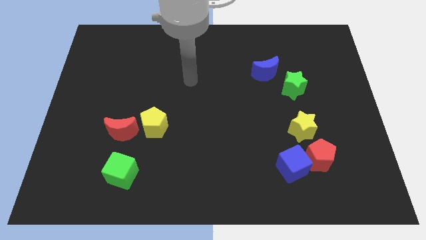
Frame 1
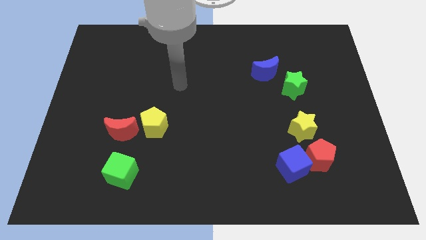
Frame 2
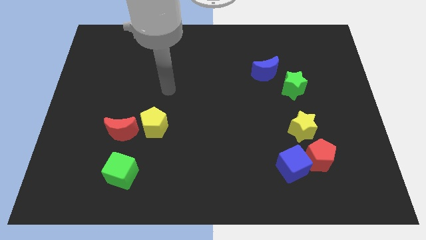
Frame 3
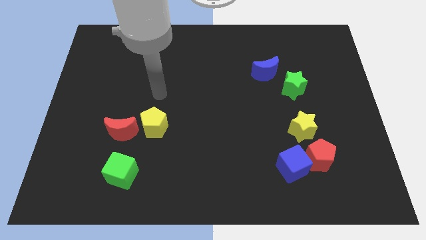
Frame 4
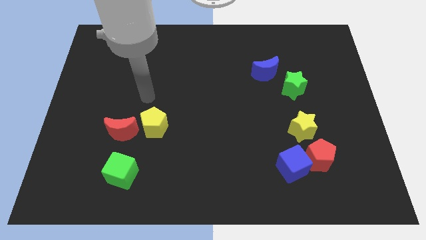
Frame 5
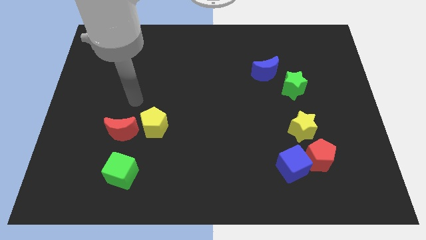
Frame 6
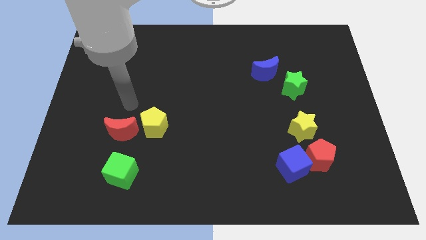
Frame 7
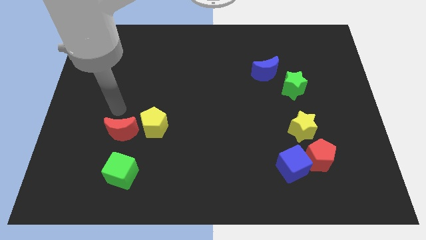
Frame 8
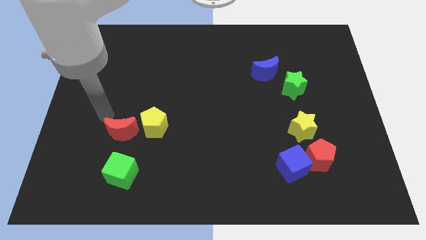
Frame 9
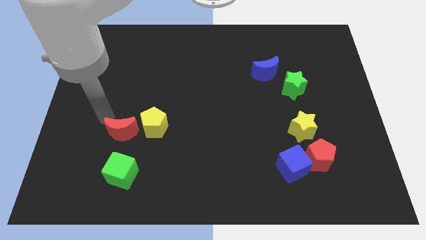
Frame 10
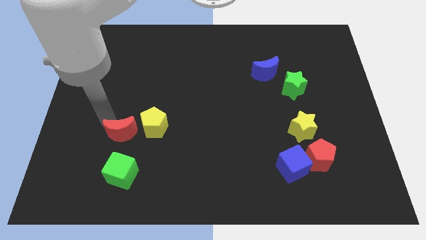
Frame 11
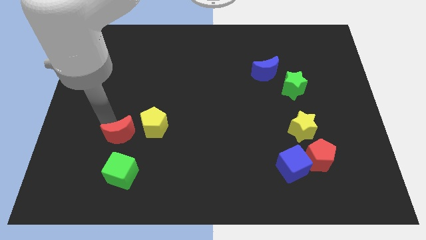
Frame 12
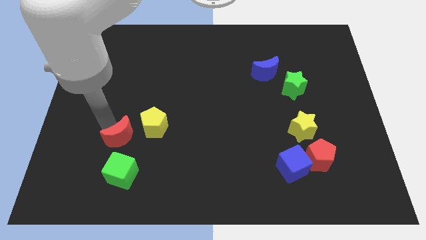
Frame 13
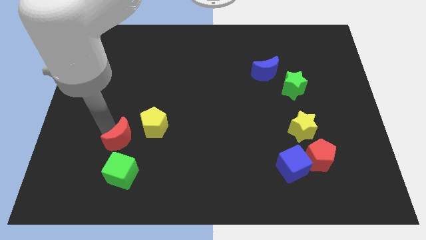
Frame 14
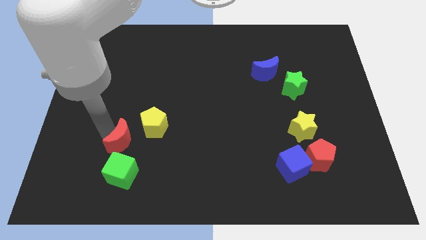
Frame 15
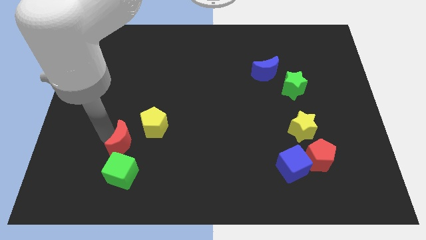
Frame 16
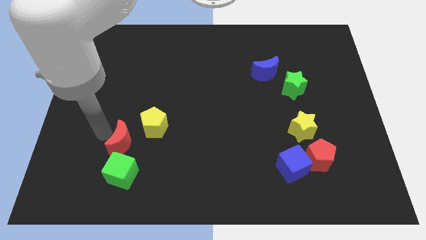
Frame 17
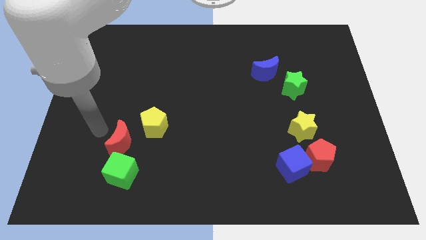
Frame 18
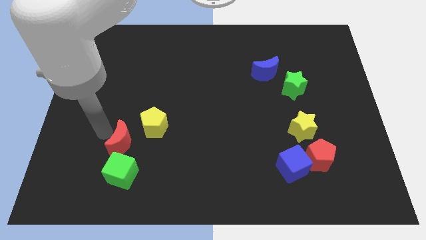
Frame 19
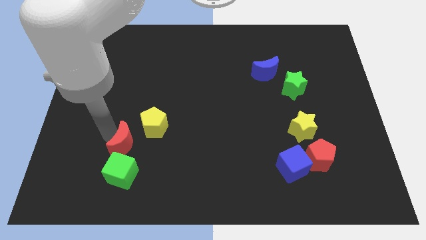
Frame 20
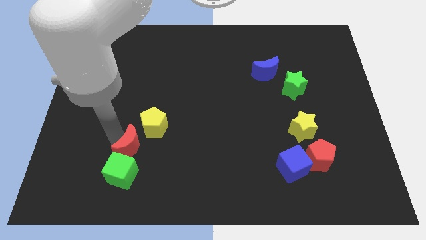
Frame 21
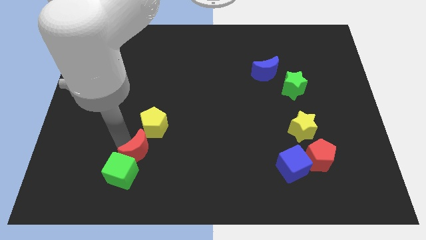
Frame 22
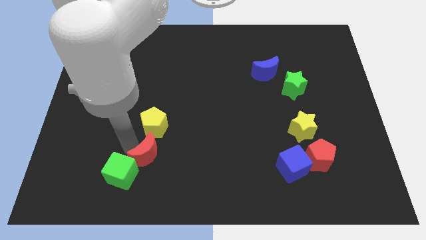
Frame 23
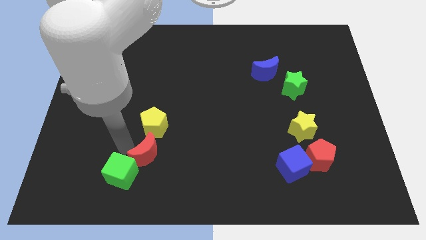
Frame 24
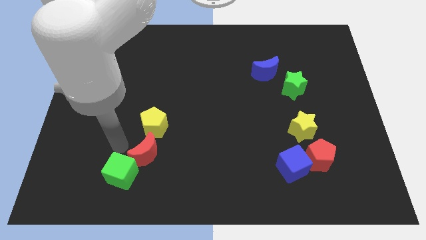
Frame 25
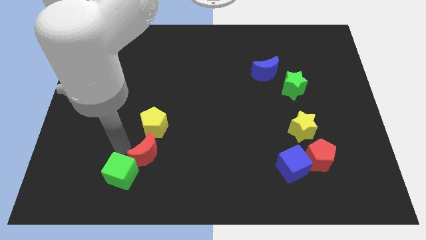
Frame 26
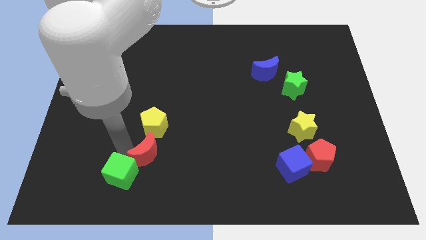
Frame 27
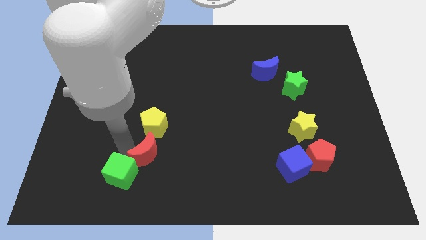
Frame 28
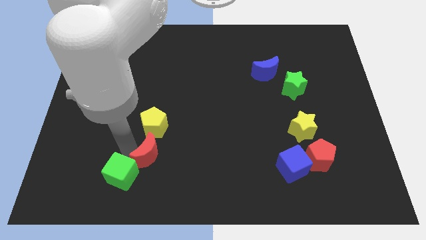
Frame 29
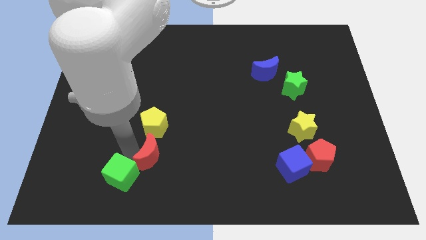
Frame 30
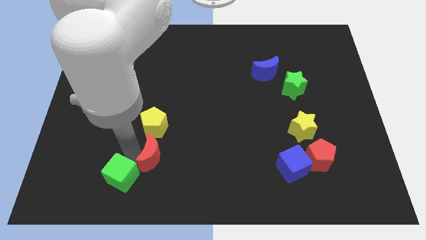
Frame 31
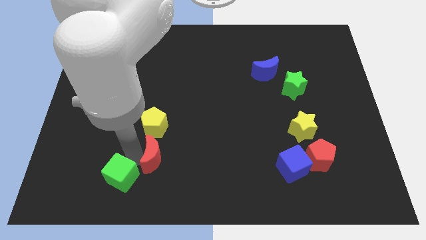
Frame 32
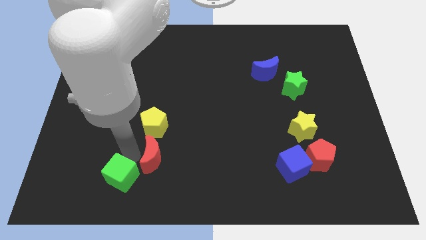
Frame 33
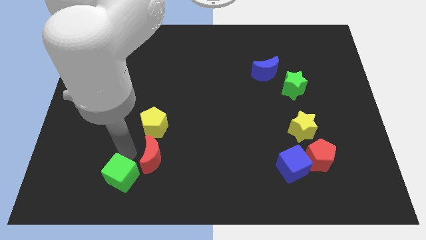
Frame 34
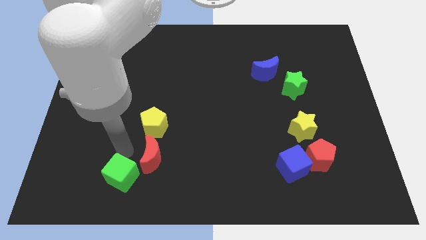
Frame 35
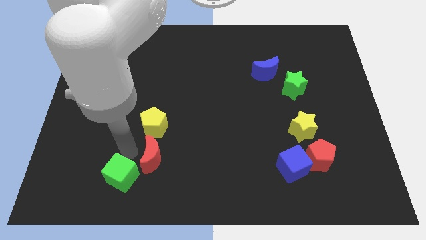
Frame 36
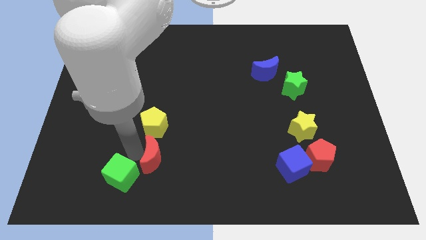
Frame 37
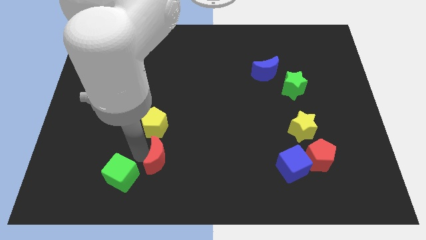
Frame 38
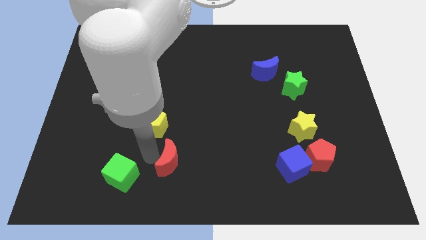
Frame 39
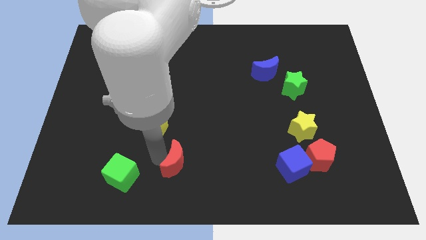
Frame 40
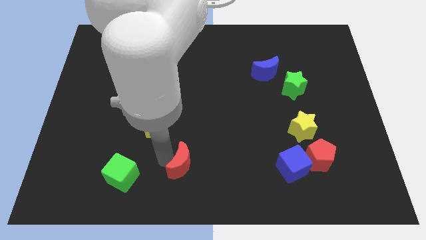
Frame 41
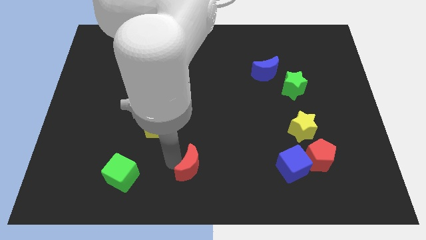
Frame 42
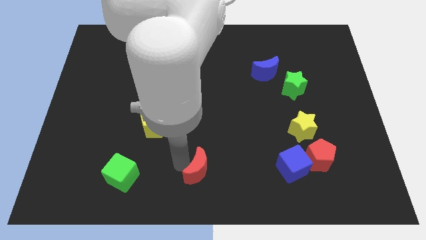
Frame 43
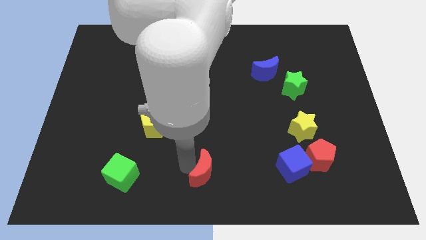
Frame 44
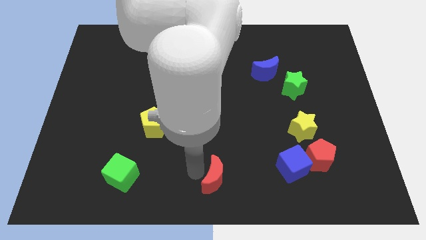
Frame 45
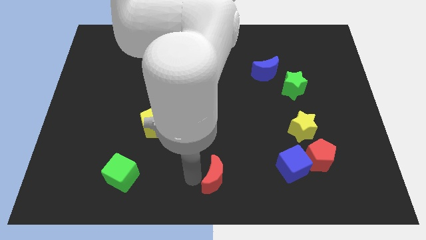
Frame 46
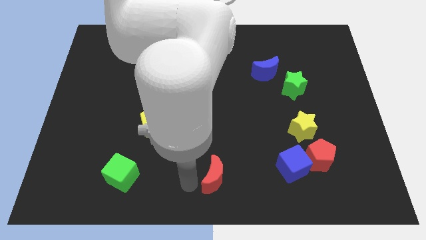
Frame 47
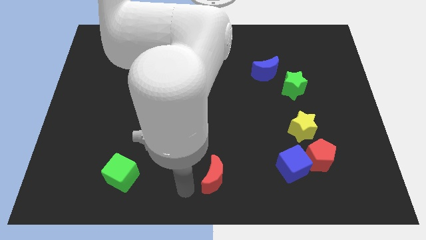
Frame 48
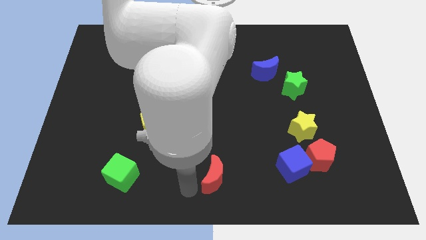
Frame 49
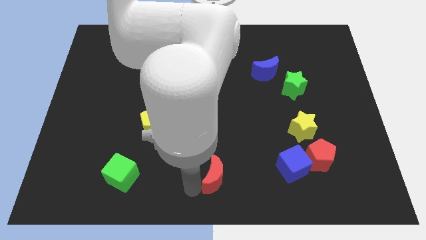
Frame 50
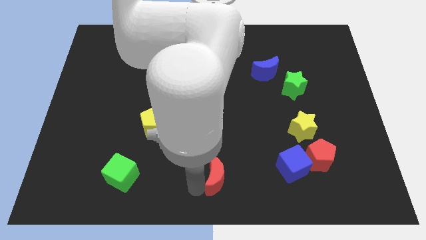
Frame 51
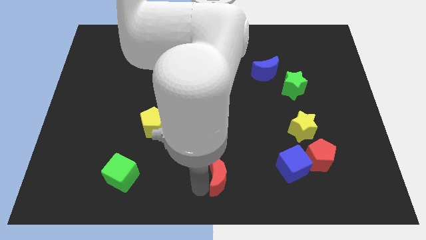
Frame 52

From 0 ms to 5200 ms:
move the red moon to the left of the blue cube

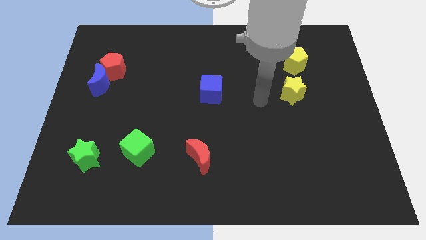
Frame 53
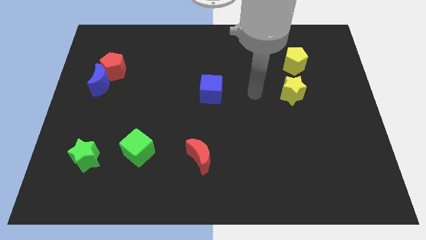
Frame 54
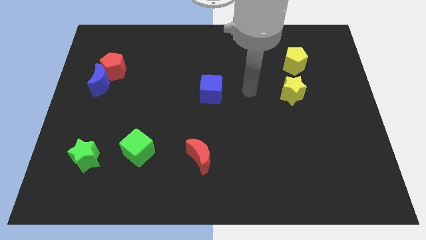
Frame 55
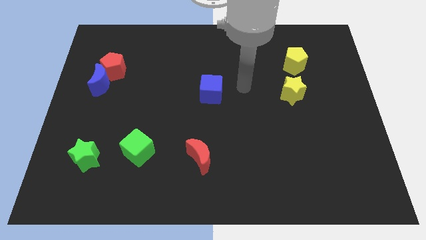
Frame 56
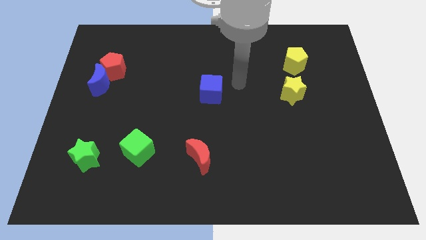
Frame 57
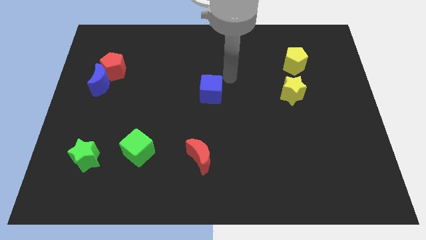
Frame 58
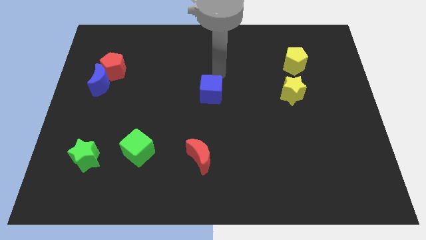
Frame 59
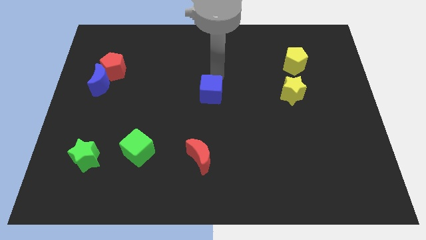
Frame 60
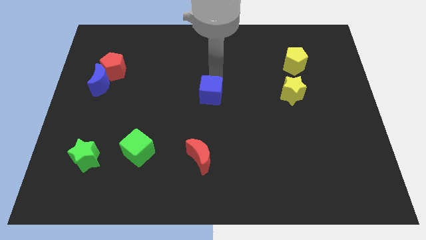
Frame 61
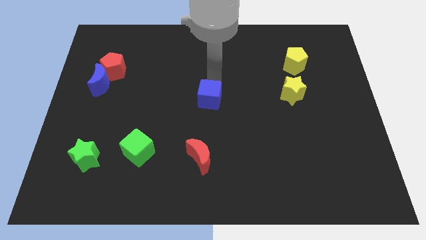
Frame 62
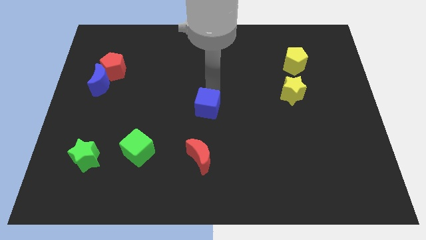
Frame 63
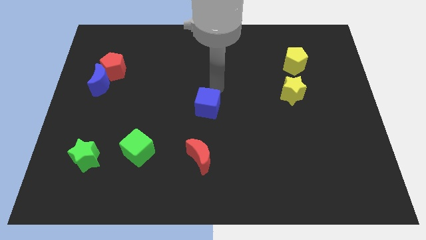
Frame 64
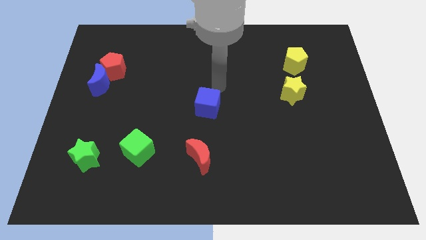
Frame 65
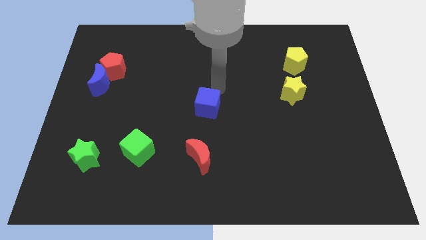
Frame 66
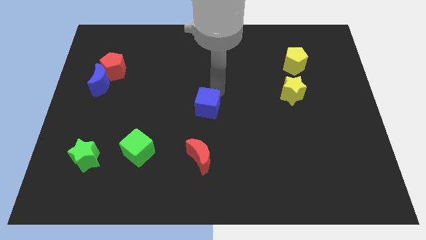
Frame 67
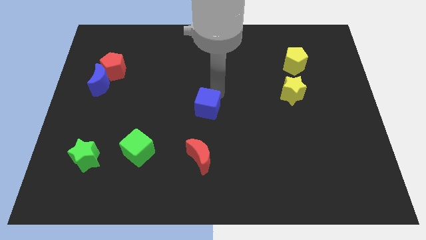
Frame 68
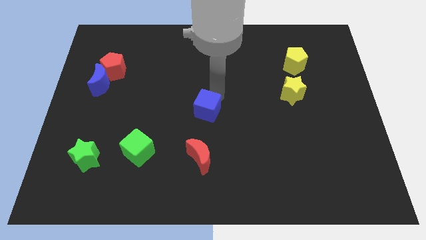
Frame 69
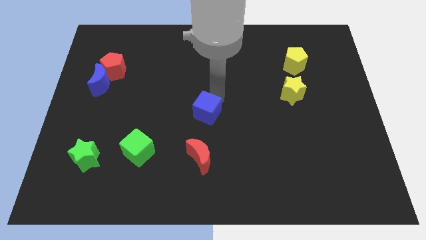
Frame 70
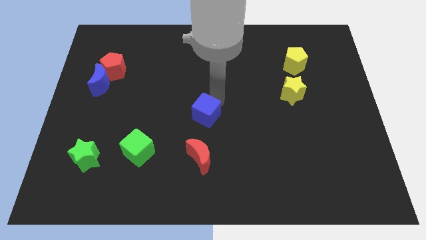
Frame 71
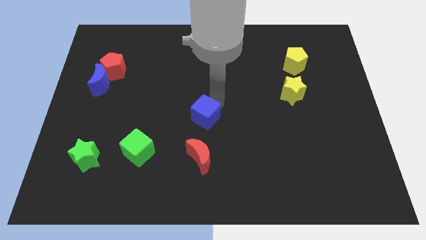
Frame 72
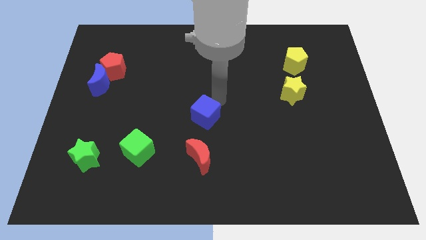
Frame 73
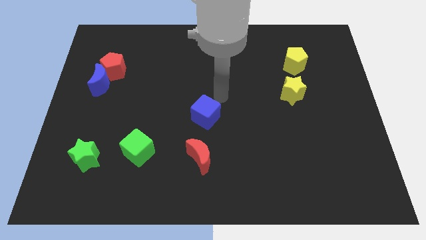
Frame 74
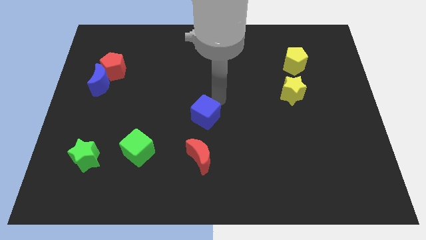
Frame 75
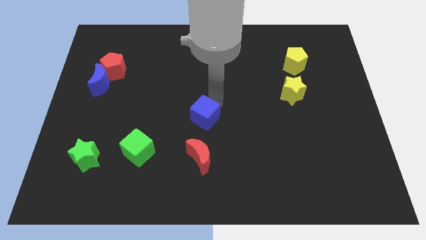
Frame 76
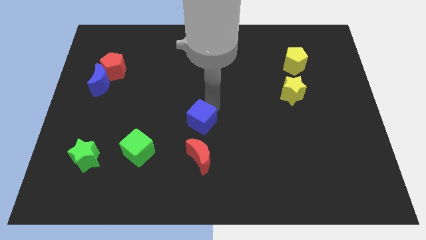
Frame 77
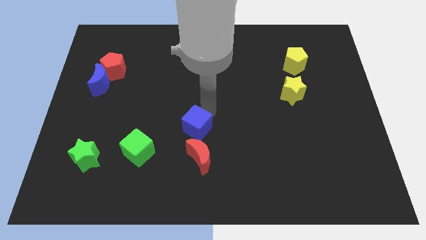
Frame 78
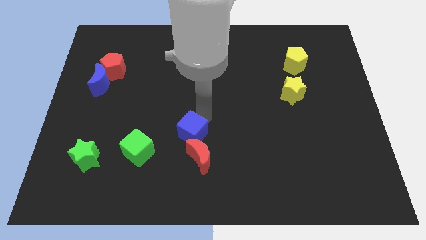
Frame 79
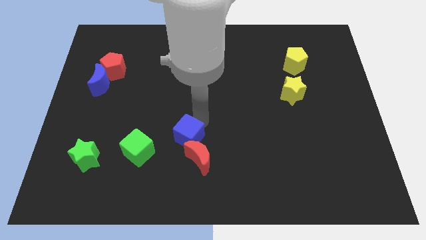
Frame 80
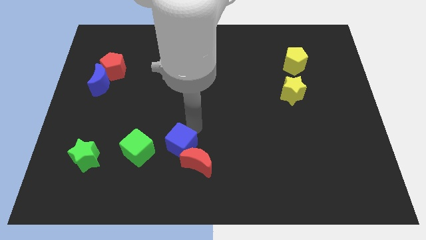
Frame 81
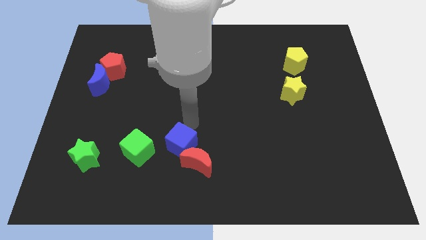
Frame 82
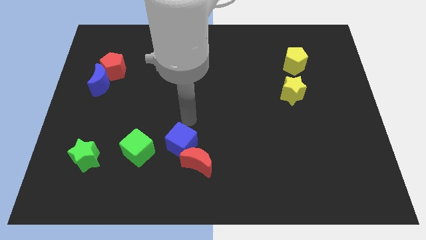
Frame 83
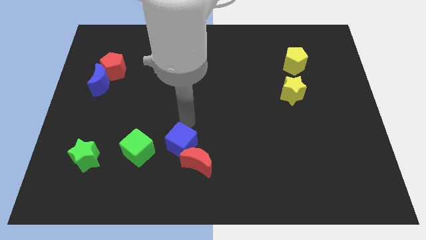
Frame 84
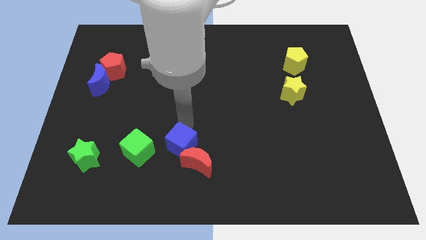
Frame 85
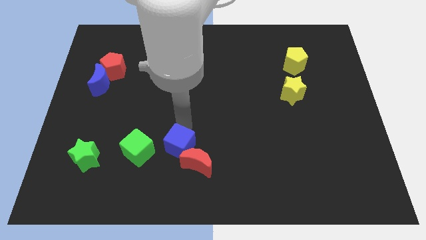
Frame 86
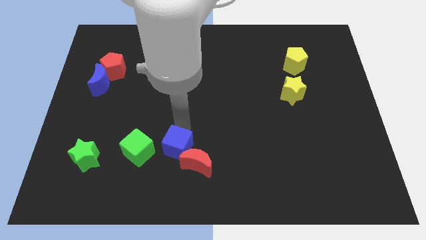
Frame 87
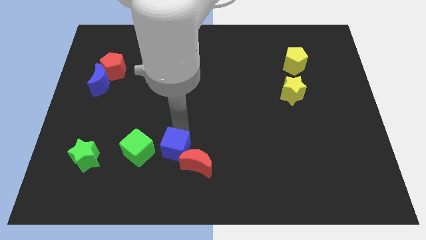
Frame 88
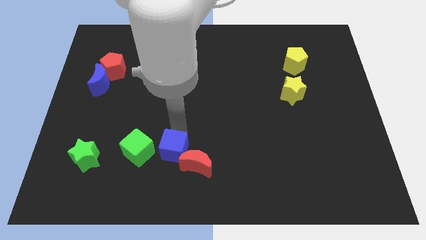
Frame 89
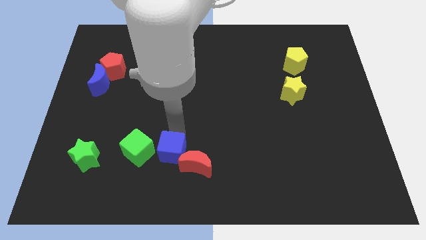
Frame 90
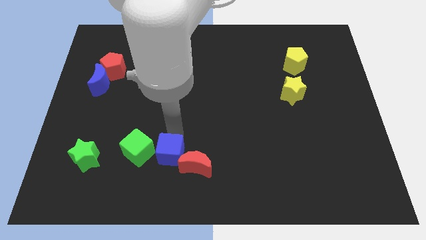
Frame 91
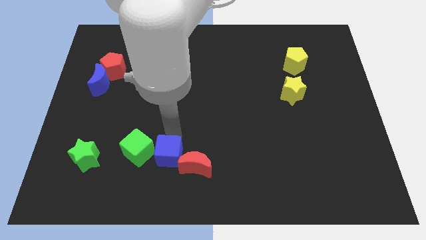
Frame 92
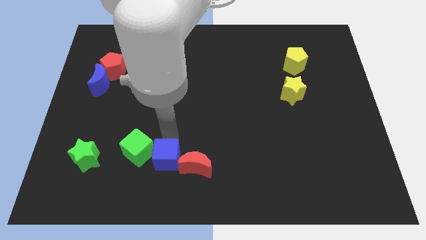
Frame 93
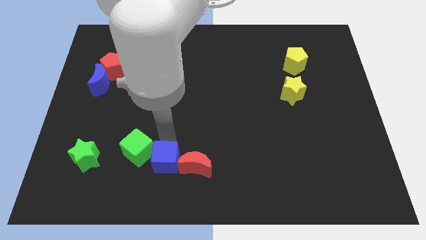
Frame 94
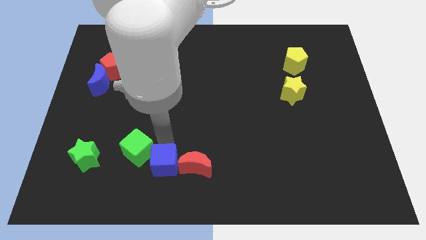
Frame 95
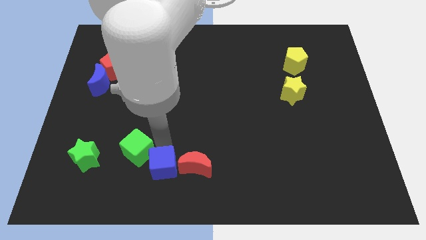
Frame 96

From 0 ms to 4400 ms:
push the blue cube diagonally down and to the left of the red moon
